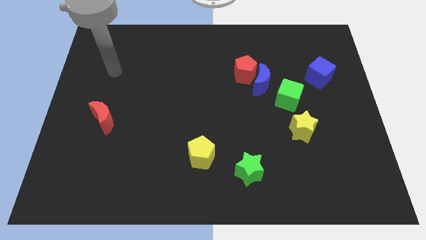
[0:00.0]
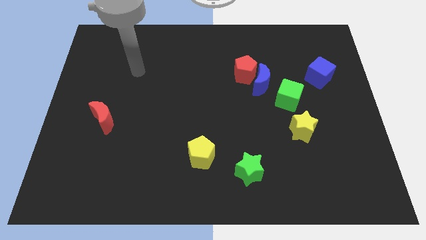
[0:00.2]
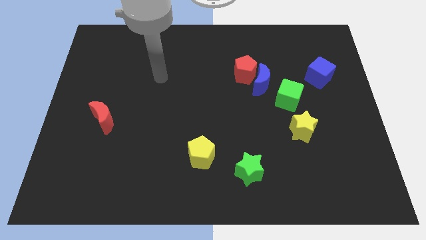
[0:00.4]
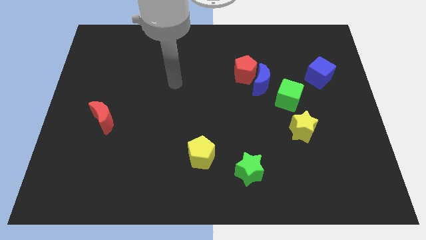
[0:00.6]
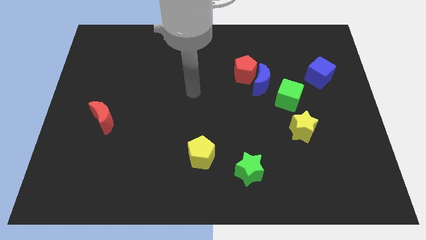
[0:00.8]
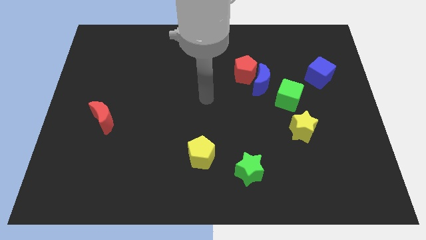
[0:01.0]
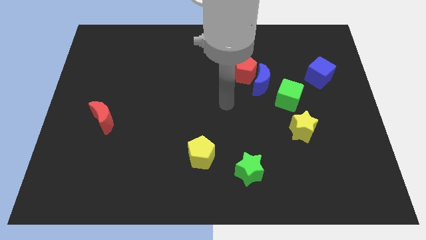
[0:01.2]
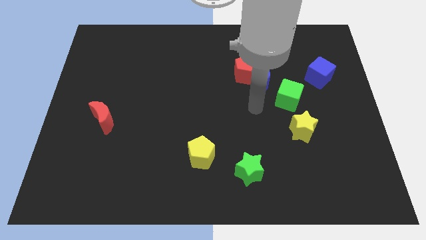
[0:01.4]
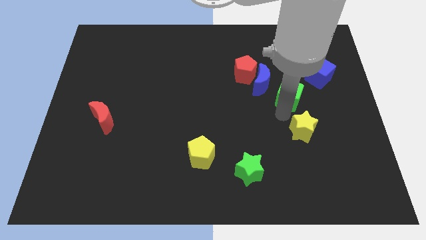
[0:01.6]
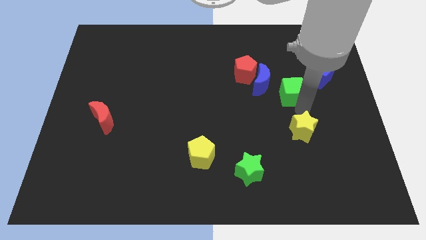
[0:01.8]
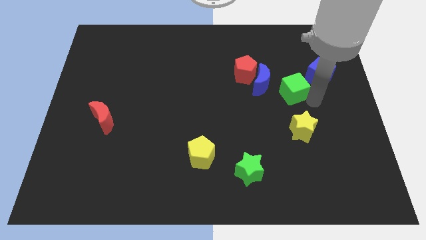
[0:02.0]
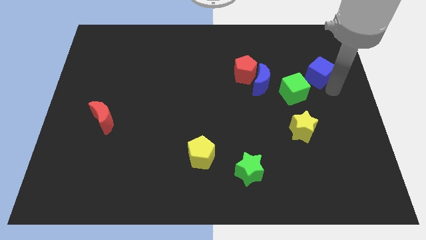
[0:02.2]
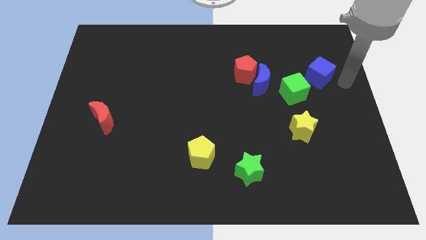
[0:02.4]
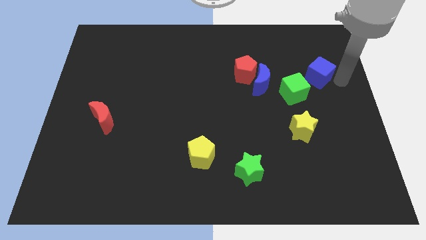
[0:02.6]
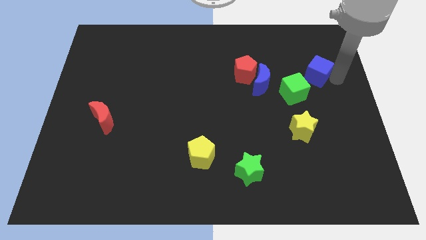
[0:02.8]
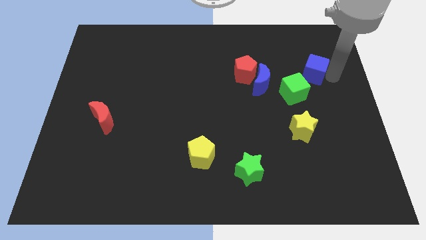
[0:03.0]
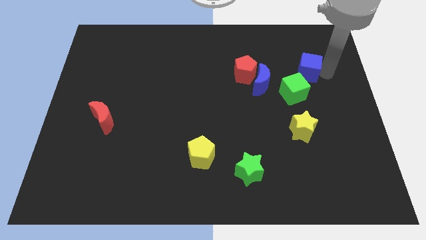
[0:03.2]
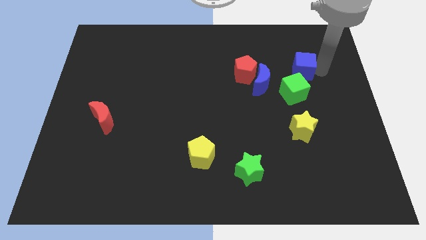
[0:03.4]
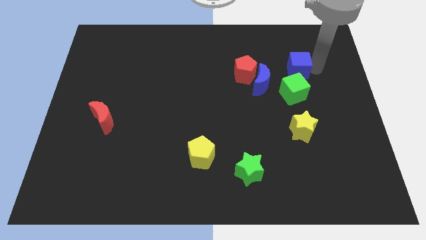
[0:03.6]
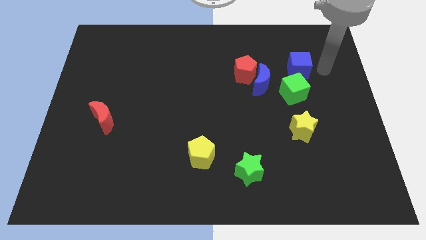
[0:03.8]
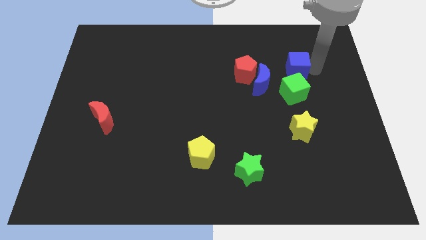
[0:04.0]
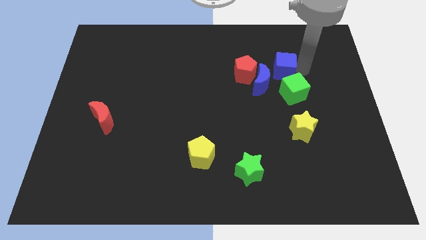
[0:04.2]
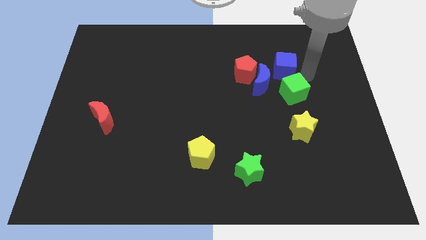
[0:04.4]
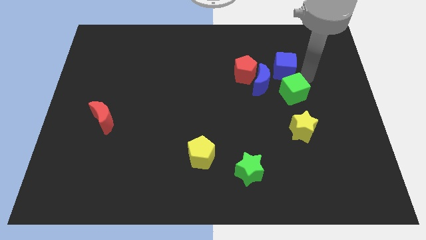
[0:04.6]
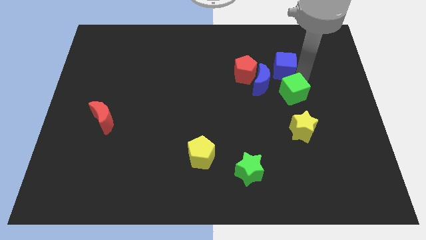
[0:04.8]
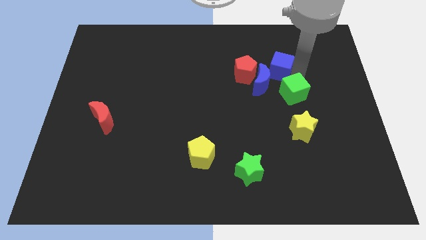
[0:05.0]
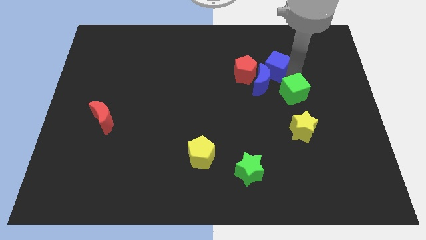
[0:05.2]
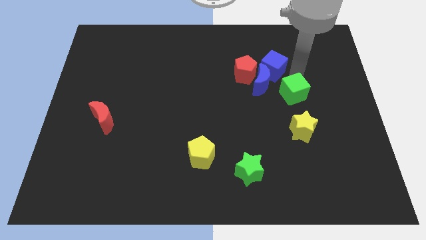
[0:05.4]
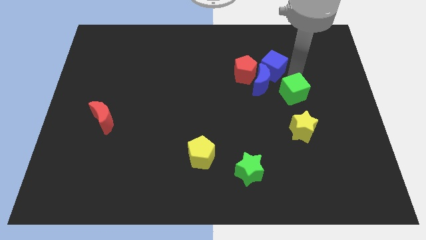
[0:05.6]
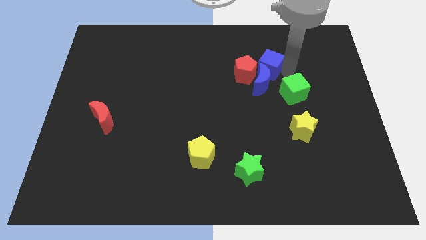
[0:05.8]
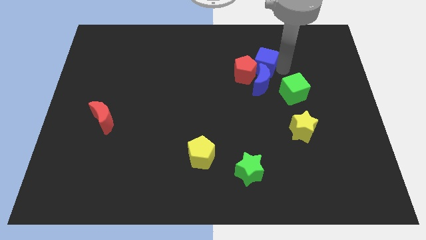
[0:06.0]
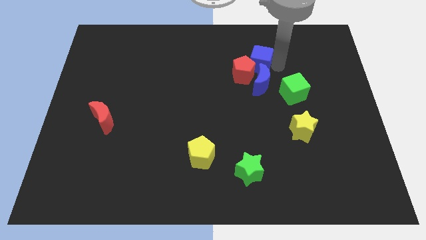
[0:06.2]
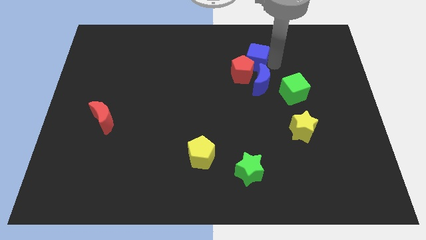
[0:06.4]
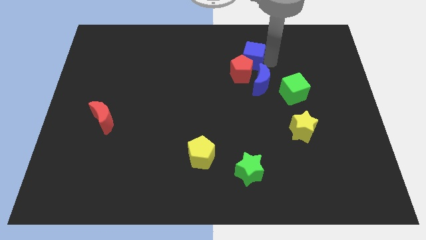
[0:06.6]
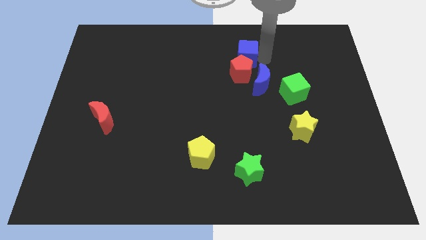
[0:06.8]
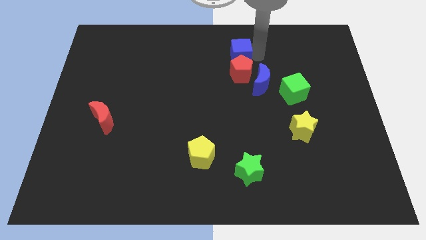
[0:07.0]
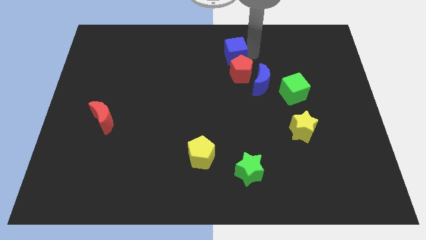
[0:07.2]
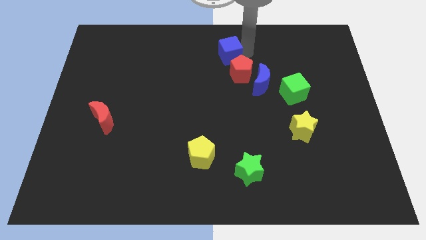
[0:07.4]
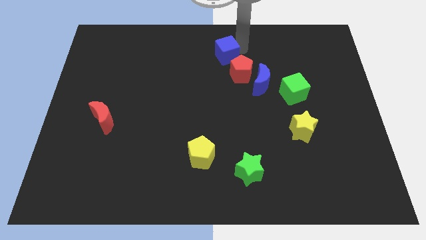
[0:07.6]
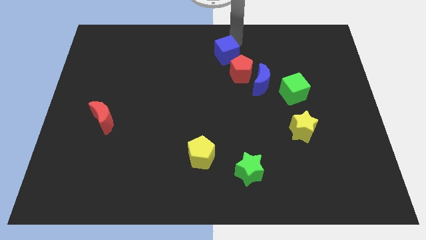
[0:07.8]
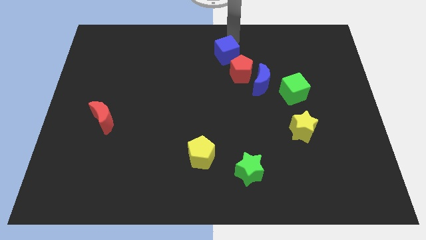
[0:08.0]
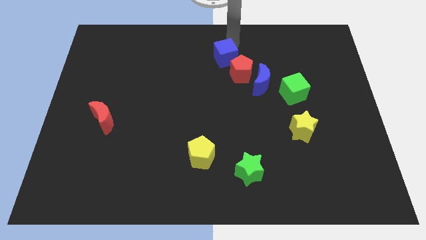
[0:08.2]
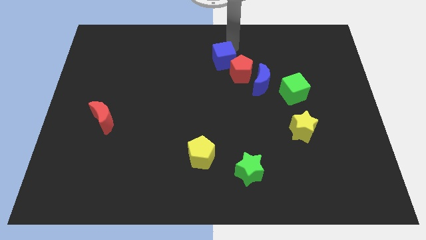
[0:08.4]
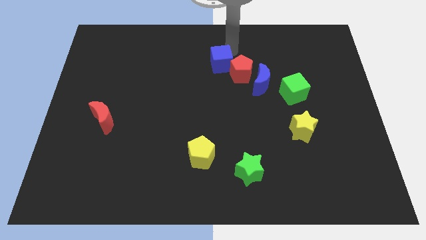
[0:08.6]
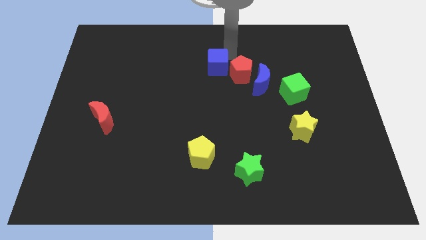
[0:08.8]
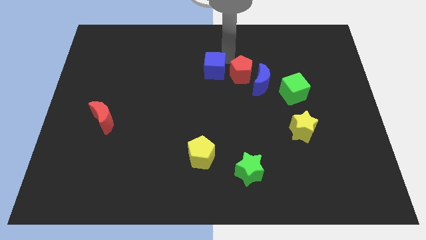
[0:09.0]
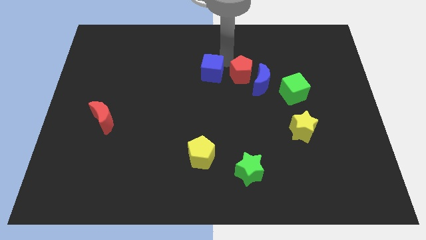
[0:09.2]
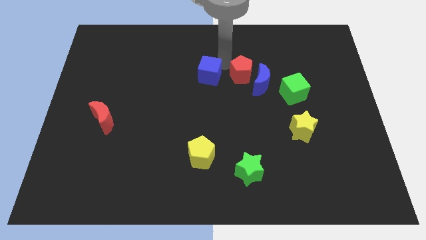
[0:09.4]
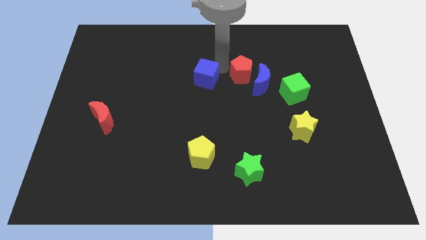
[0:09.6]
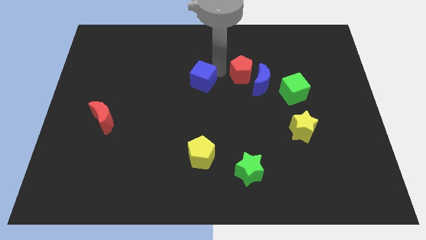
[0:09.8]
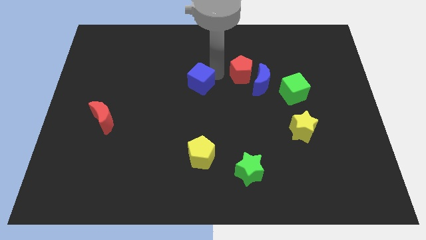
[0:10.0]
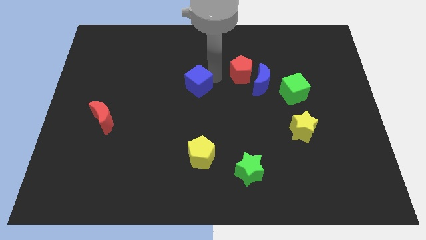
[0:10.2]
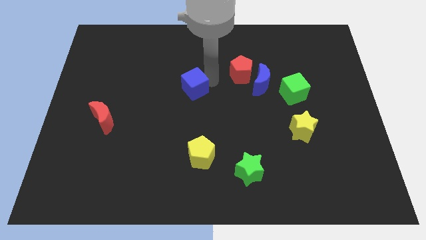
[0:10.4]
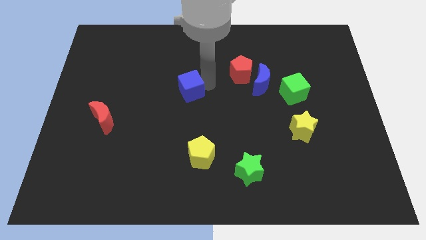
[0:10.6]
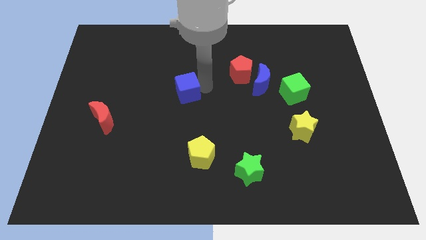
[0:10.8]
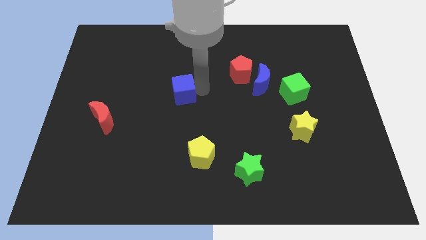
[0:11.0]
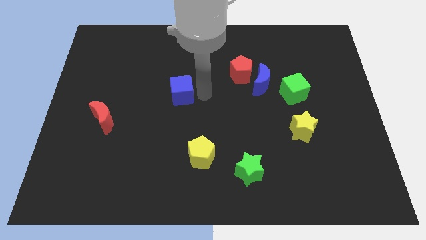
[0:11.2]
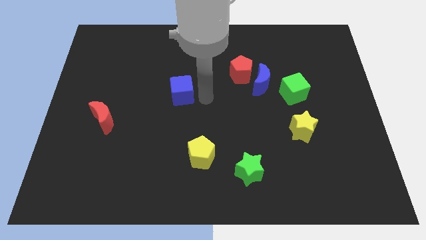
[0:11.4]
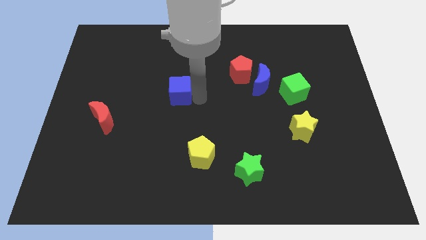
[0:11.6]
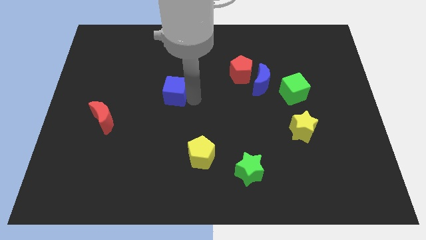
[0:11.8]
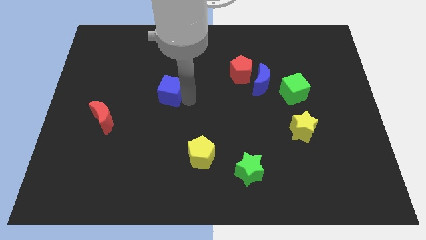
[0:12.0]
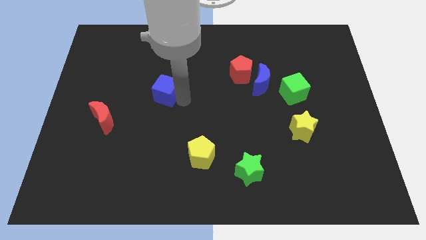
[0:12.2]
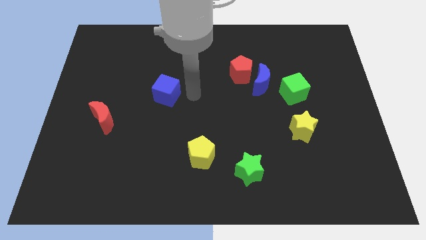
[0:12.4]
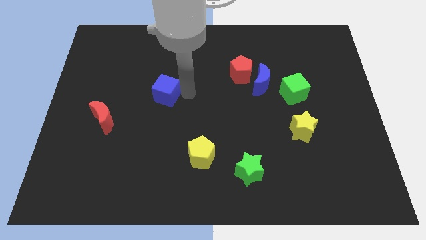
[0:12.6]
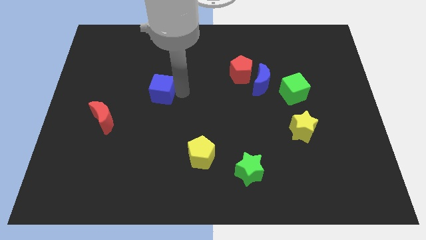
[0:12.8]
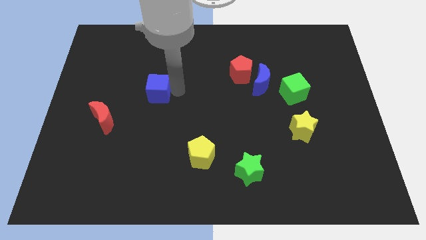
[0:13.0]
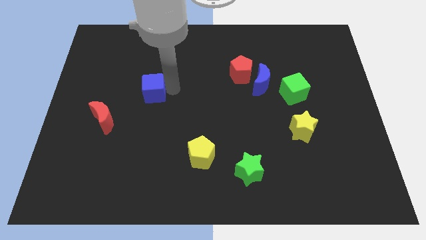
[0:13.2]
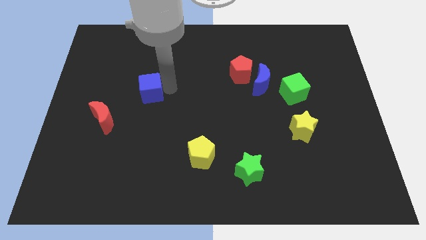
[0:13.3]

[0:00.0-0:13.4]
slide the blue cube to the top right of the red moon

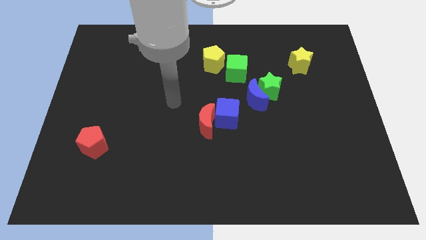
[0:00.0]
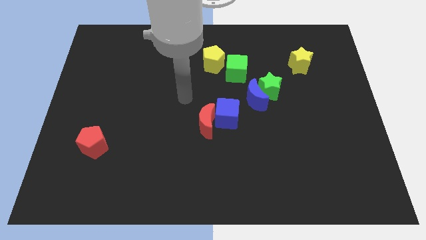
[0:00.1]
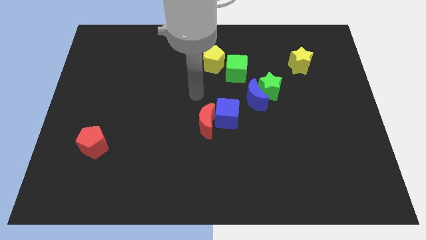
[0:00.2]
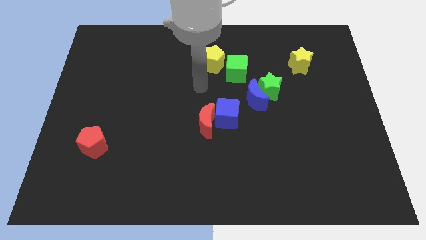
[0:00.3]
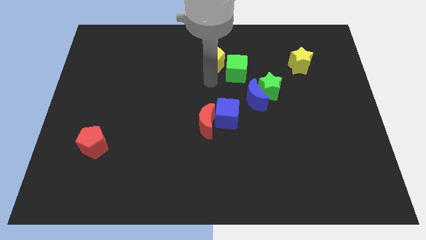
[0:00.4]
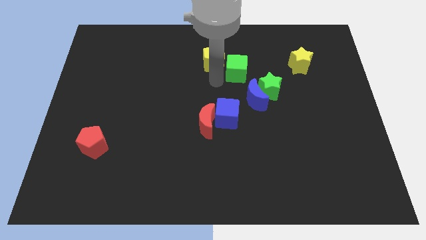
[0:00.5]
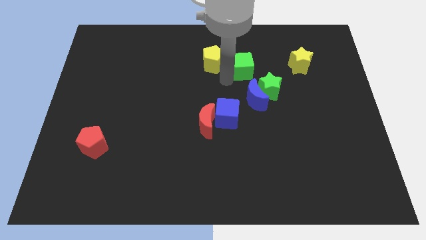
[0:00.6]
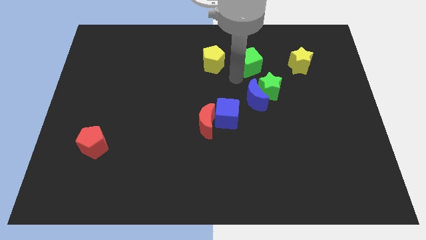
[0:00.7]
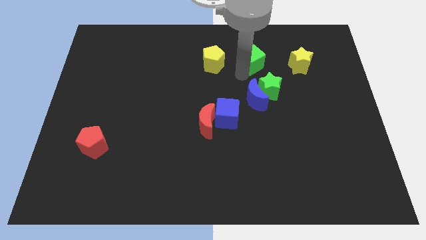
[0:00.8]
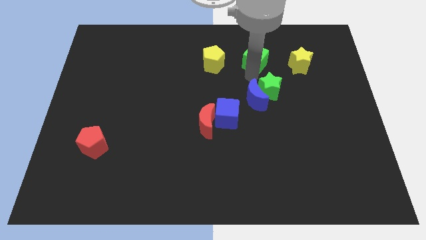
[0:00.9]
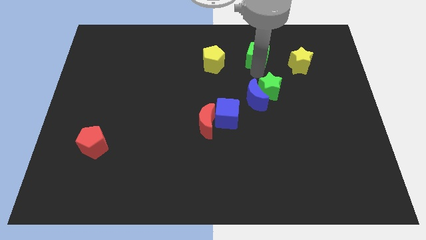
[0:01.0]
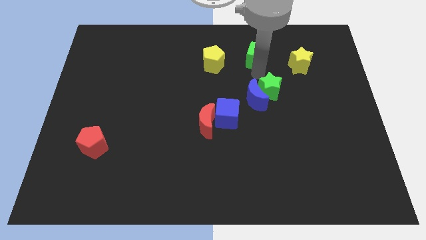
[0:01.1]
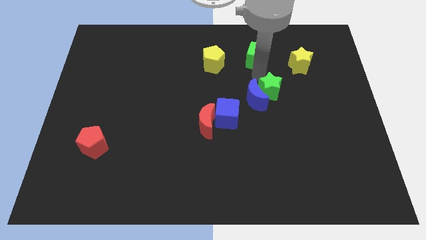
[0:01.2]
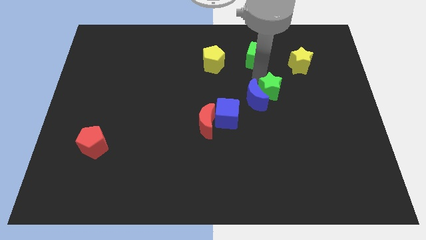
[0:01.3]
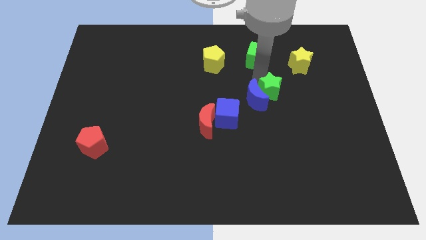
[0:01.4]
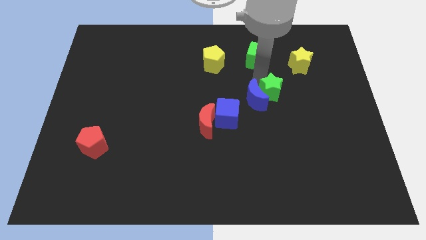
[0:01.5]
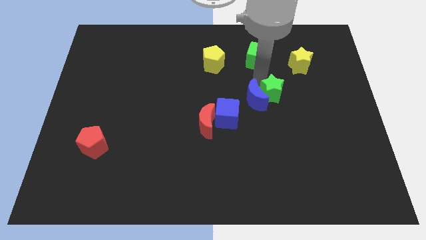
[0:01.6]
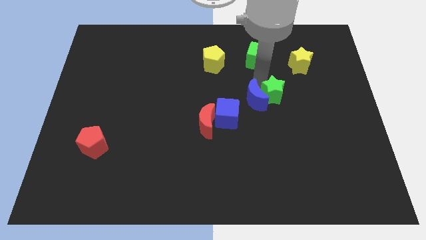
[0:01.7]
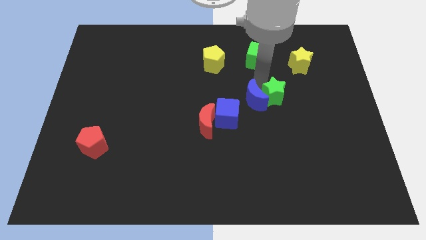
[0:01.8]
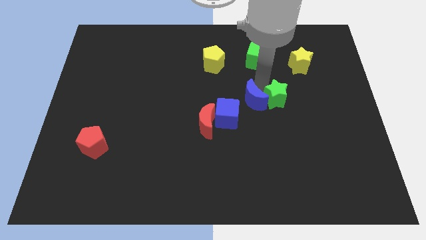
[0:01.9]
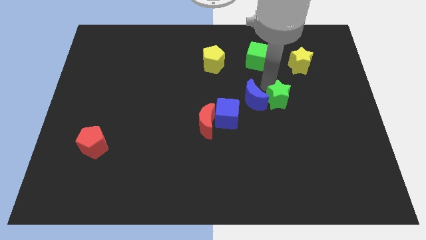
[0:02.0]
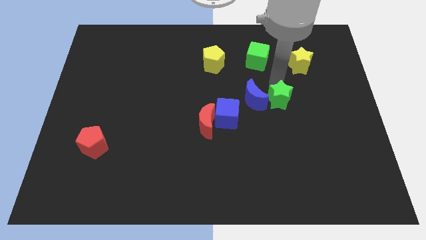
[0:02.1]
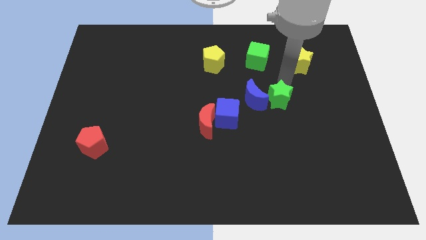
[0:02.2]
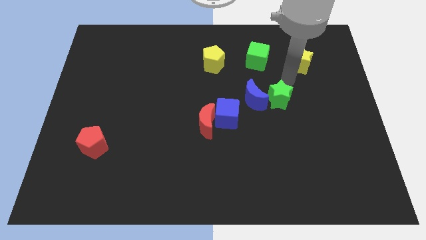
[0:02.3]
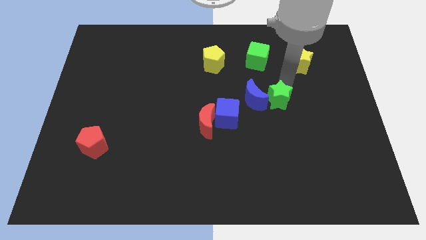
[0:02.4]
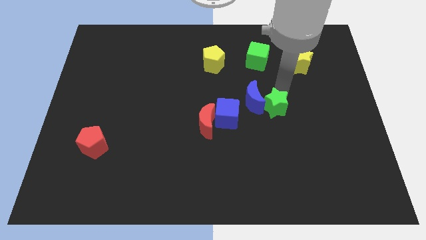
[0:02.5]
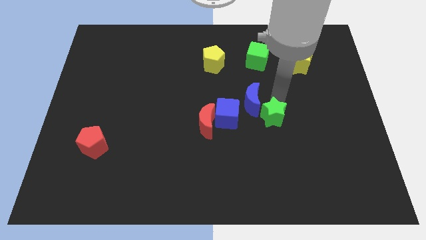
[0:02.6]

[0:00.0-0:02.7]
push the green star below the blue moon
